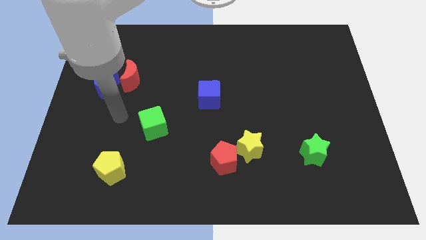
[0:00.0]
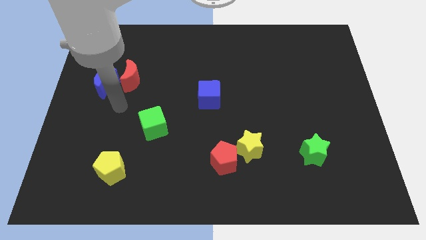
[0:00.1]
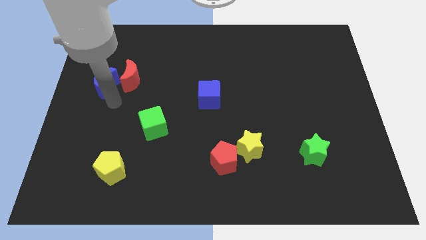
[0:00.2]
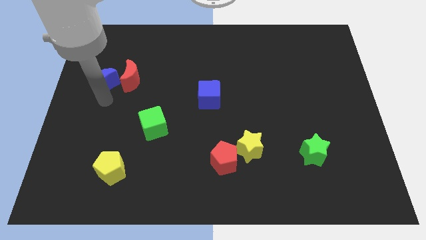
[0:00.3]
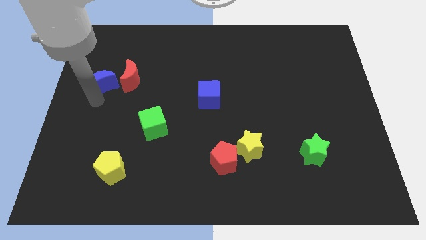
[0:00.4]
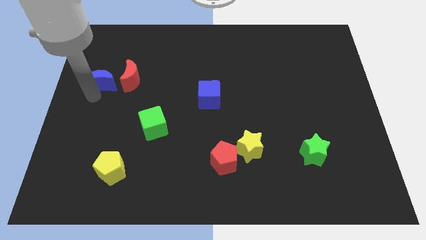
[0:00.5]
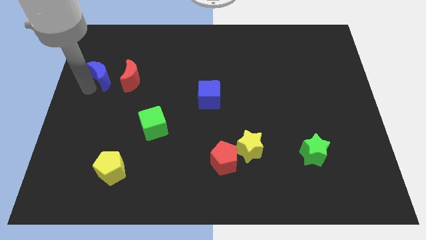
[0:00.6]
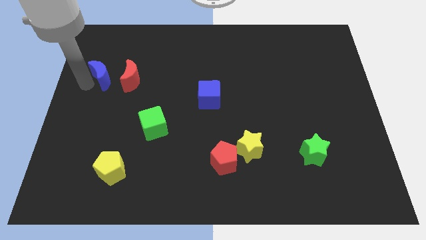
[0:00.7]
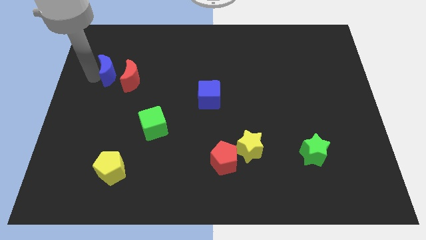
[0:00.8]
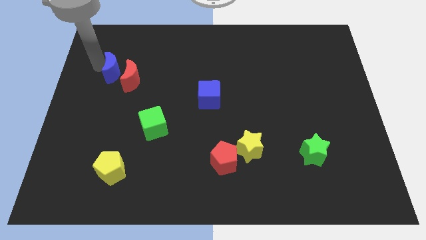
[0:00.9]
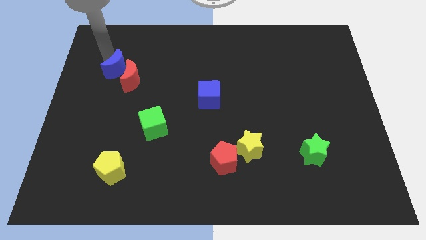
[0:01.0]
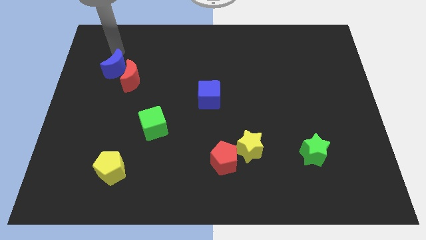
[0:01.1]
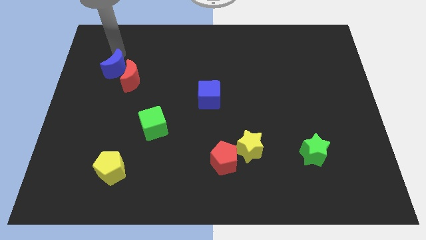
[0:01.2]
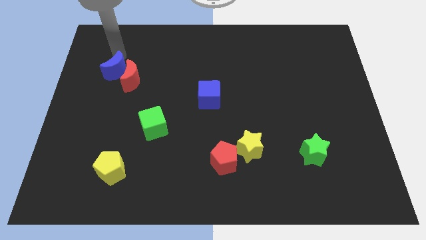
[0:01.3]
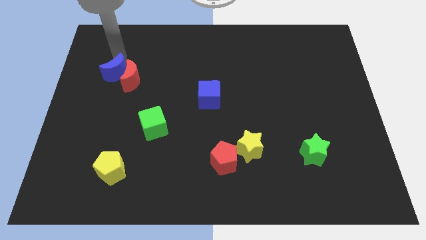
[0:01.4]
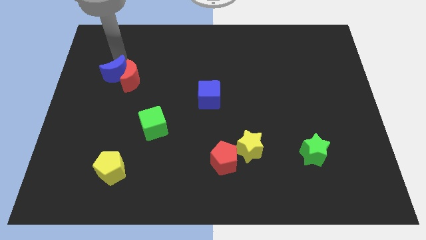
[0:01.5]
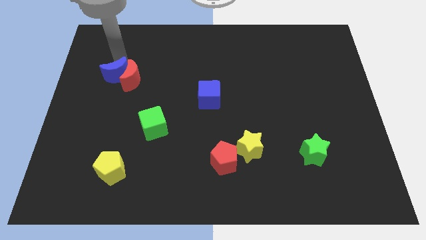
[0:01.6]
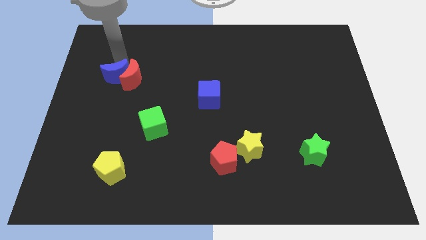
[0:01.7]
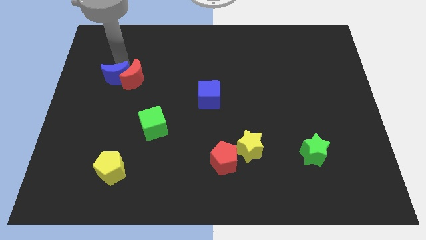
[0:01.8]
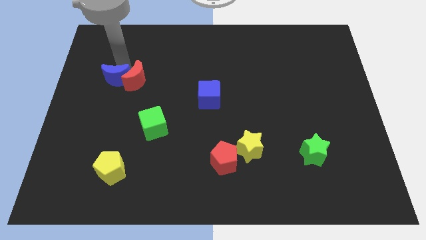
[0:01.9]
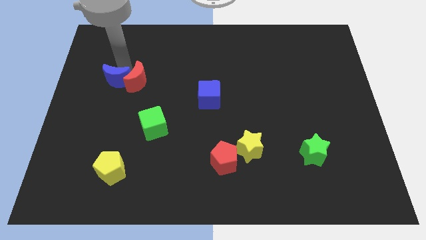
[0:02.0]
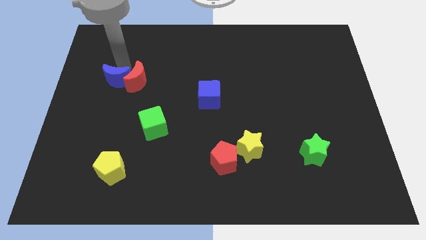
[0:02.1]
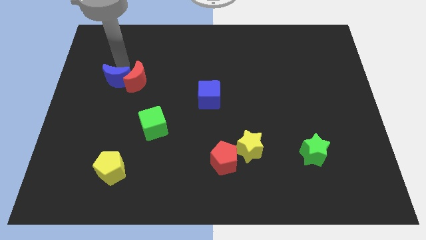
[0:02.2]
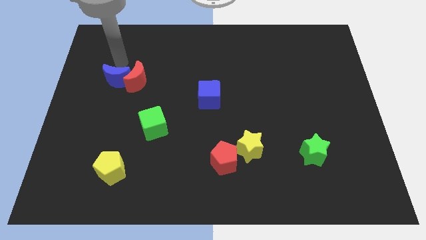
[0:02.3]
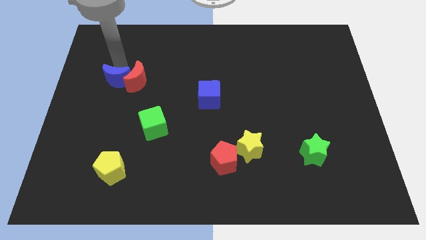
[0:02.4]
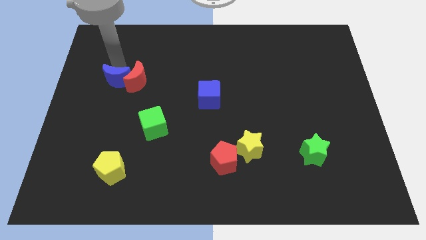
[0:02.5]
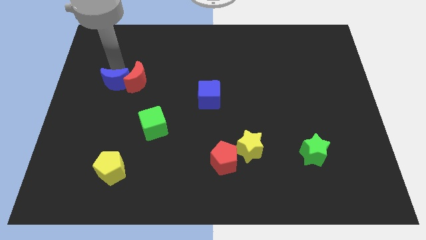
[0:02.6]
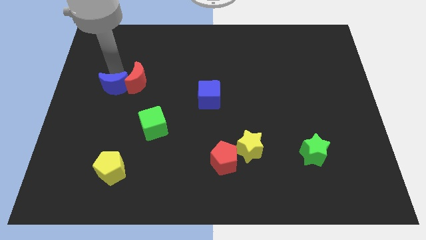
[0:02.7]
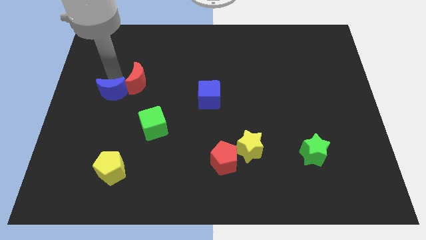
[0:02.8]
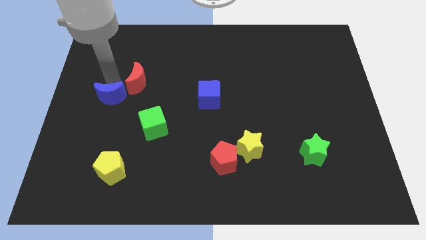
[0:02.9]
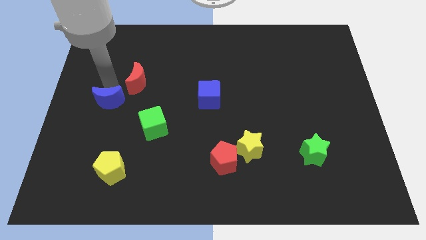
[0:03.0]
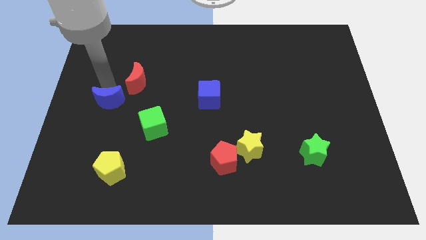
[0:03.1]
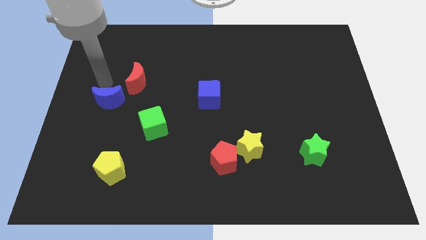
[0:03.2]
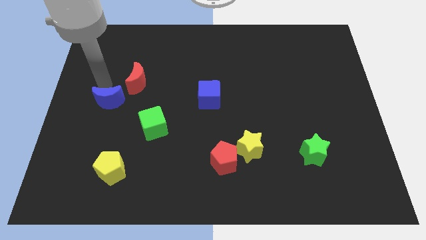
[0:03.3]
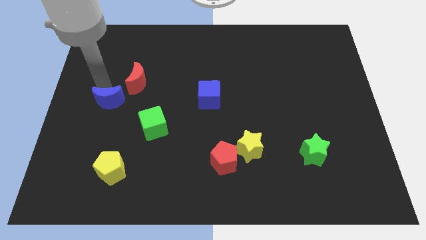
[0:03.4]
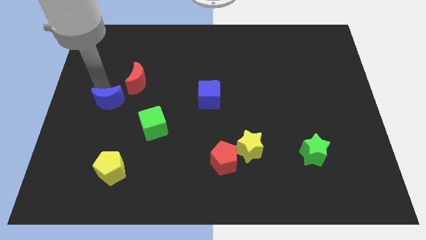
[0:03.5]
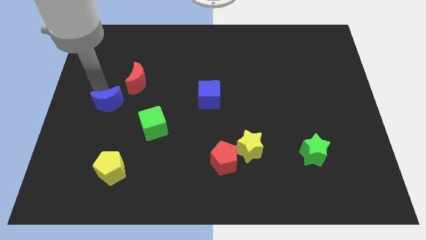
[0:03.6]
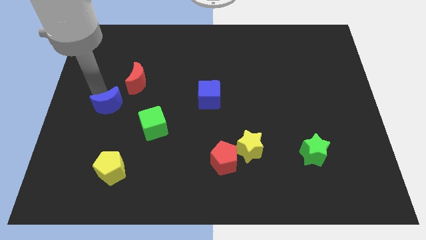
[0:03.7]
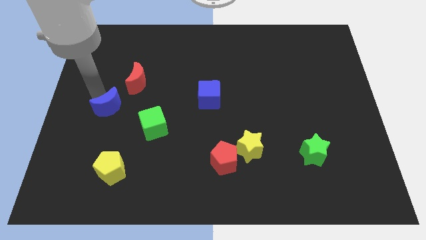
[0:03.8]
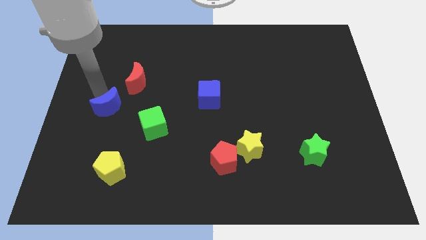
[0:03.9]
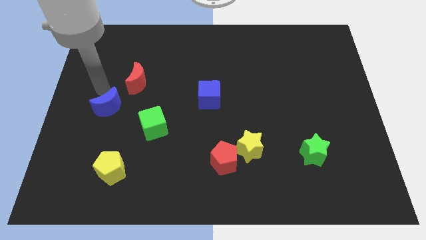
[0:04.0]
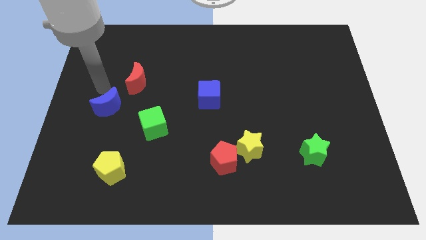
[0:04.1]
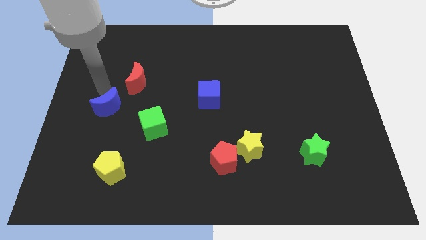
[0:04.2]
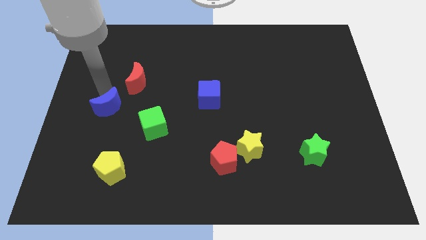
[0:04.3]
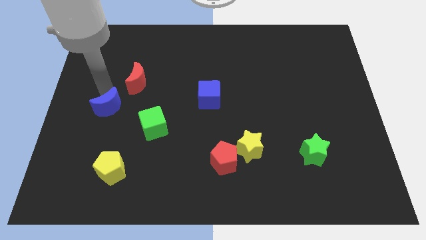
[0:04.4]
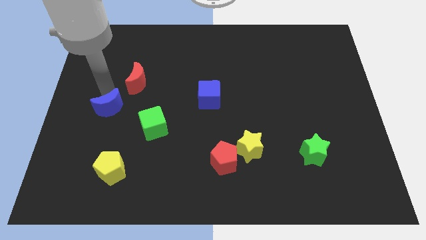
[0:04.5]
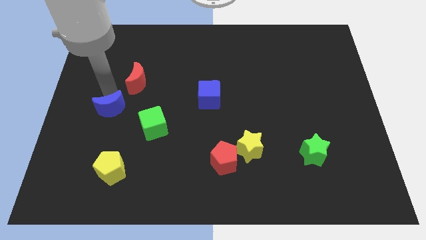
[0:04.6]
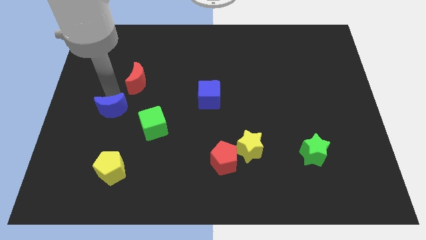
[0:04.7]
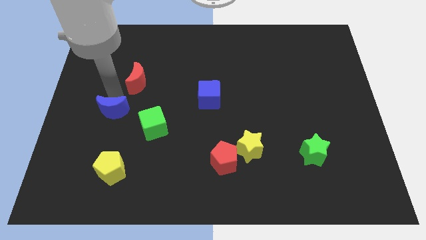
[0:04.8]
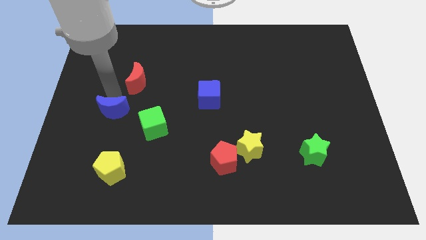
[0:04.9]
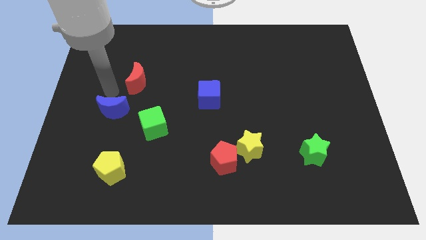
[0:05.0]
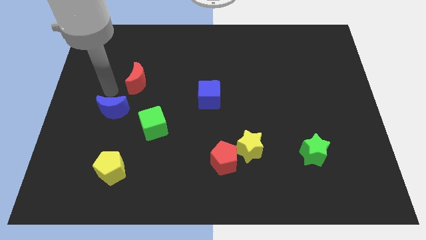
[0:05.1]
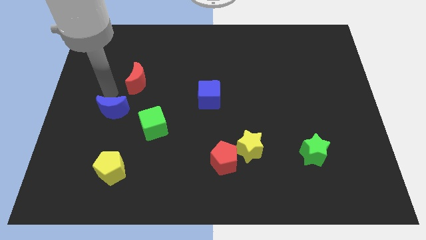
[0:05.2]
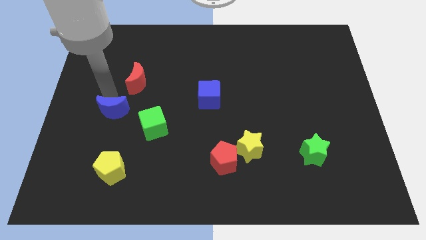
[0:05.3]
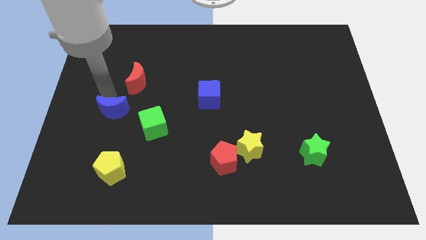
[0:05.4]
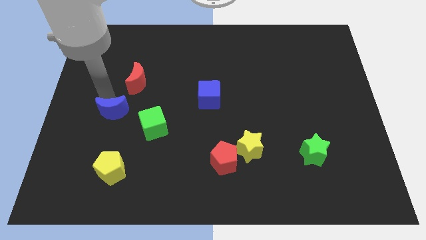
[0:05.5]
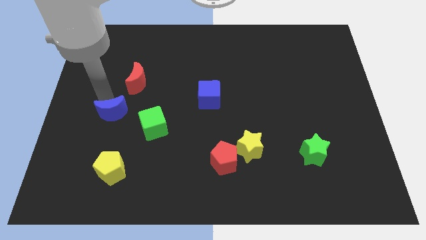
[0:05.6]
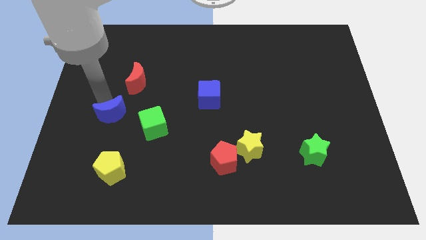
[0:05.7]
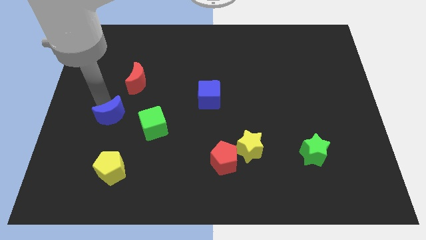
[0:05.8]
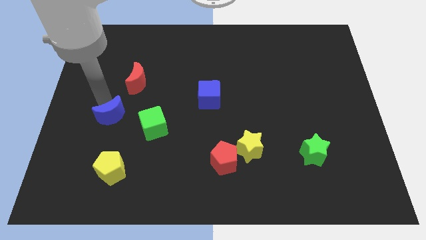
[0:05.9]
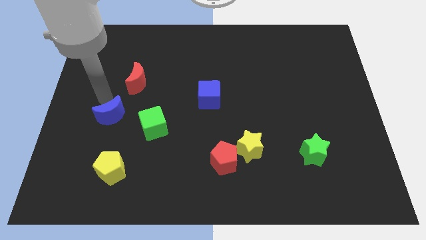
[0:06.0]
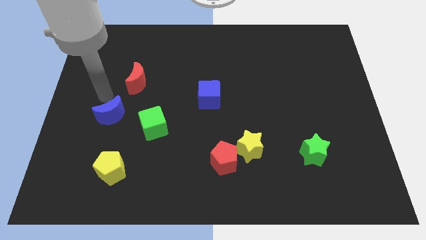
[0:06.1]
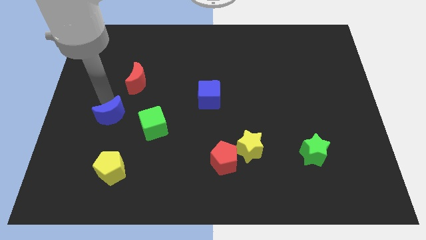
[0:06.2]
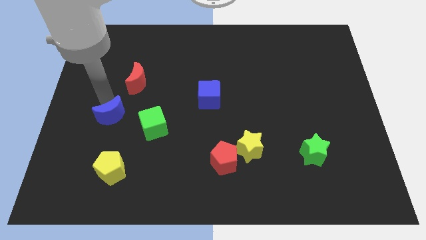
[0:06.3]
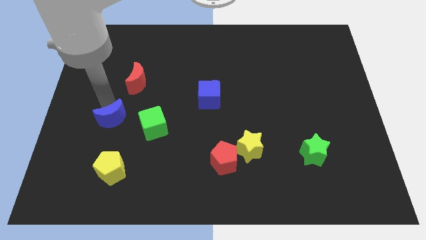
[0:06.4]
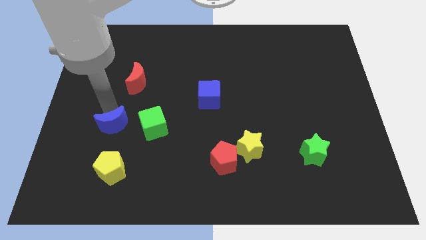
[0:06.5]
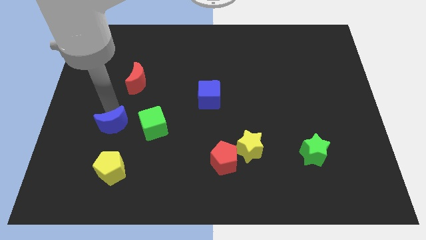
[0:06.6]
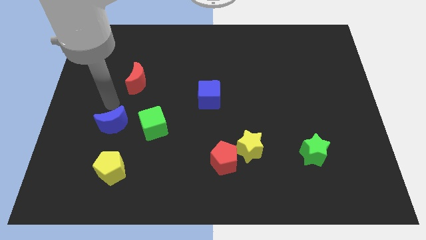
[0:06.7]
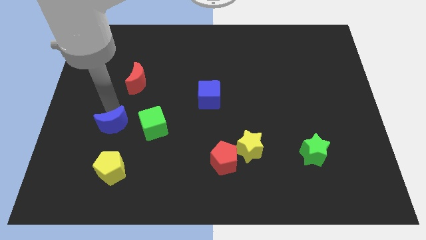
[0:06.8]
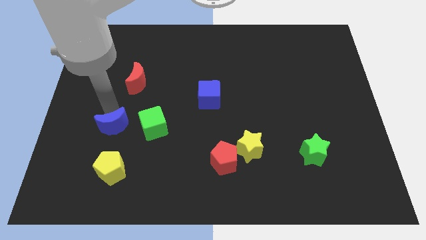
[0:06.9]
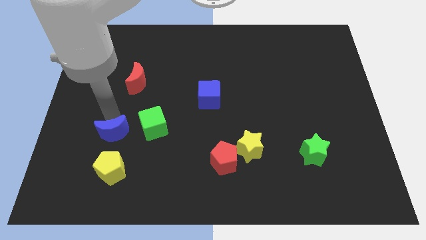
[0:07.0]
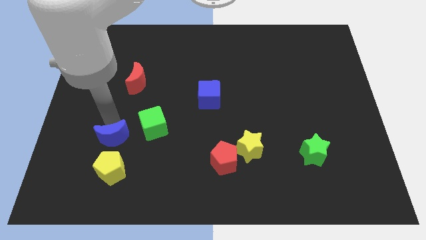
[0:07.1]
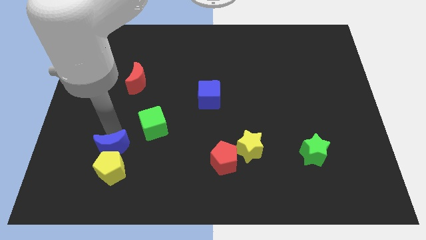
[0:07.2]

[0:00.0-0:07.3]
move the blue moon towards the yellow pentagon

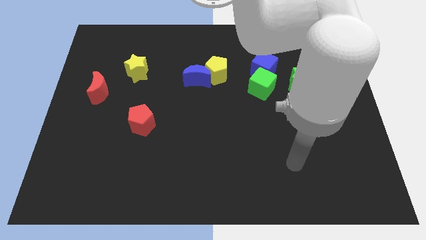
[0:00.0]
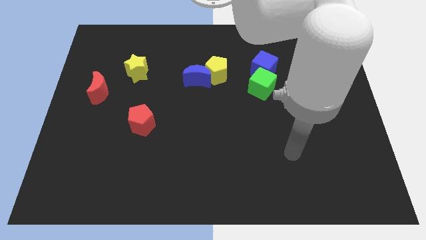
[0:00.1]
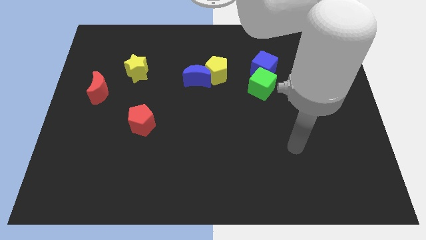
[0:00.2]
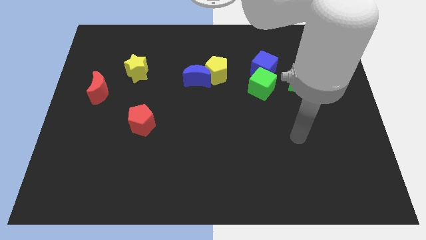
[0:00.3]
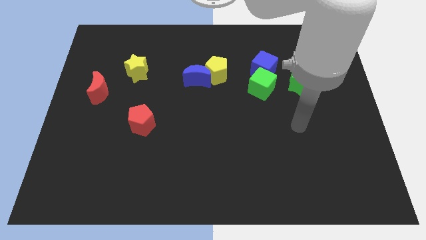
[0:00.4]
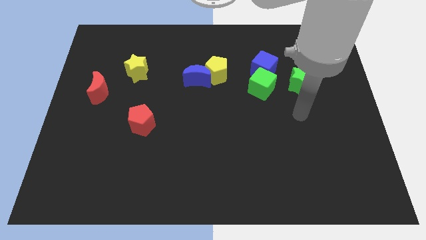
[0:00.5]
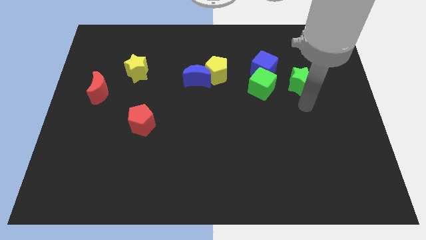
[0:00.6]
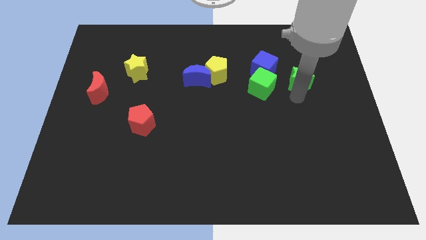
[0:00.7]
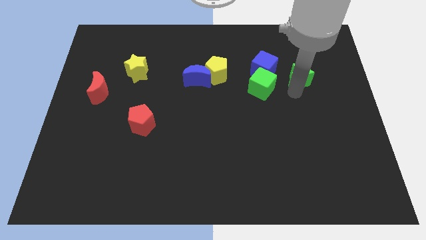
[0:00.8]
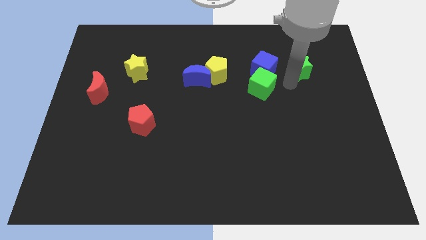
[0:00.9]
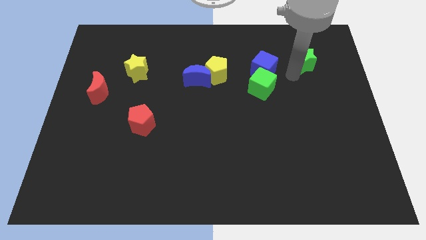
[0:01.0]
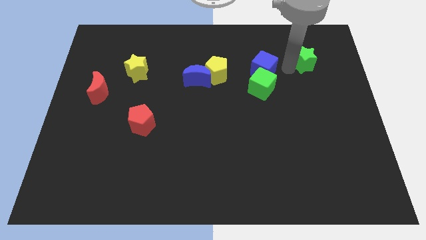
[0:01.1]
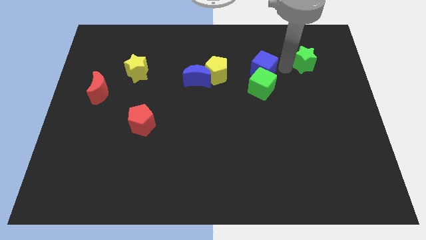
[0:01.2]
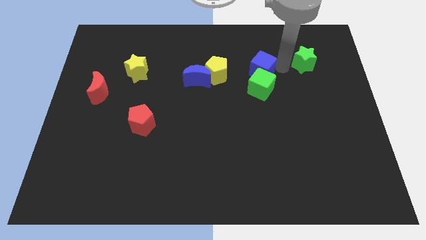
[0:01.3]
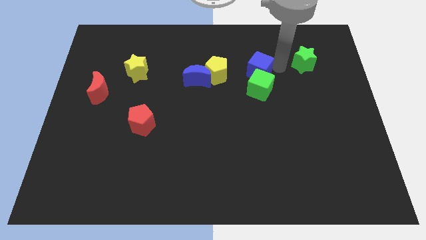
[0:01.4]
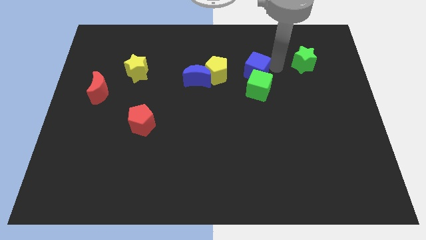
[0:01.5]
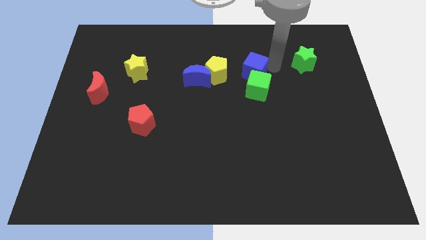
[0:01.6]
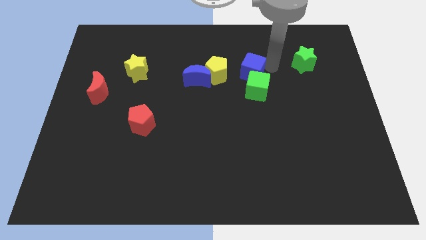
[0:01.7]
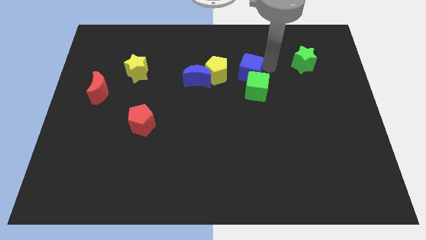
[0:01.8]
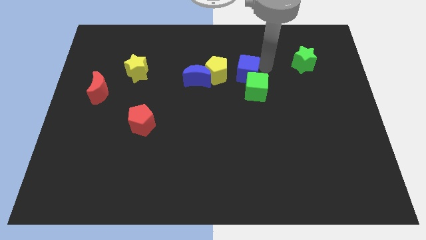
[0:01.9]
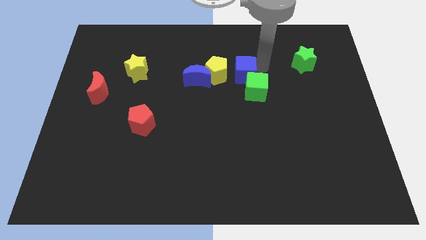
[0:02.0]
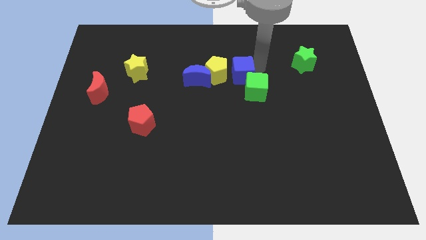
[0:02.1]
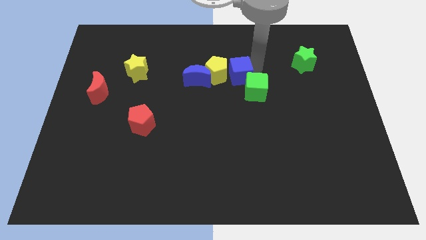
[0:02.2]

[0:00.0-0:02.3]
push the blue cube close to the yellow pentagon
